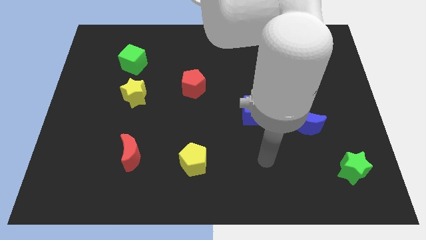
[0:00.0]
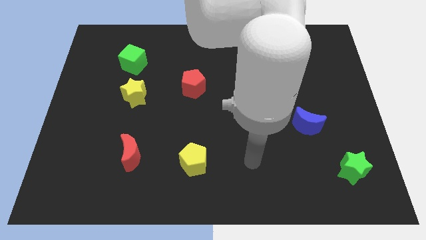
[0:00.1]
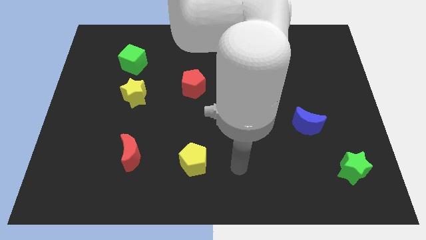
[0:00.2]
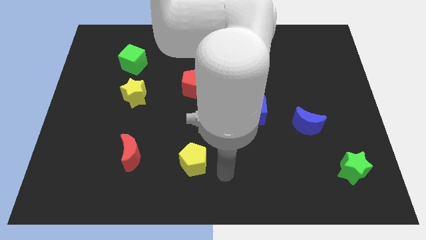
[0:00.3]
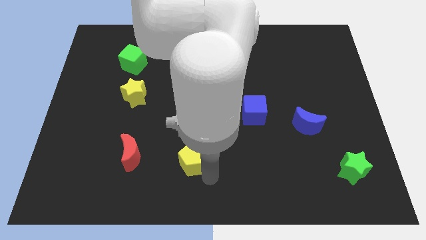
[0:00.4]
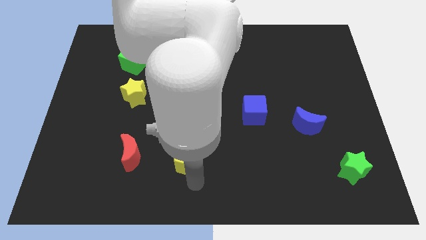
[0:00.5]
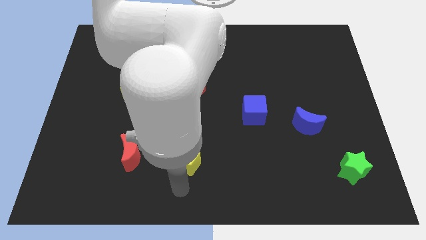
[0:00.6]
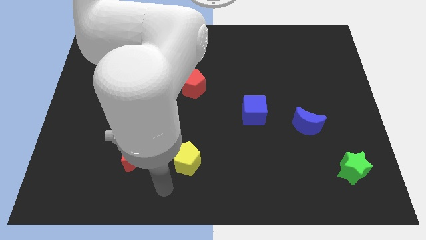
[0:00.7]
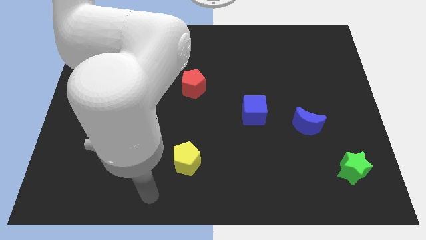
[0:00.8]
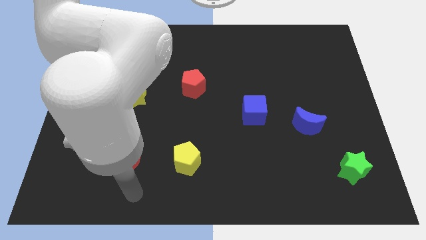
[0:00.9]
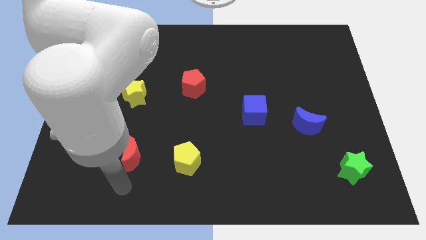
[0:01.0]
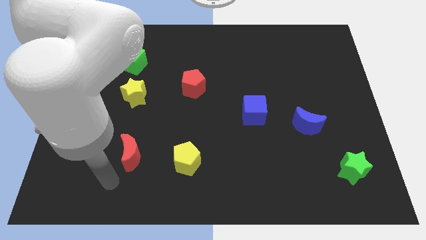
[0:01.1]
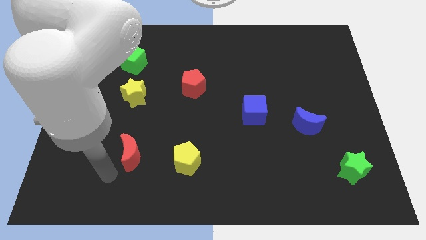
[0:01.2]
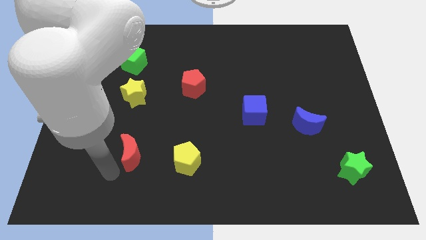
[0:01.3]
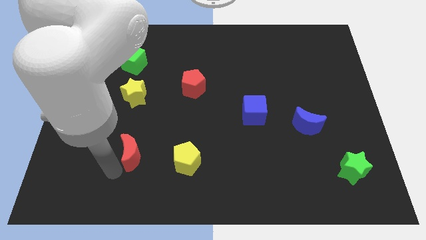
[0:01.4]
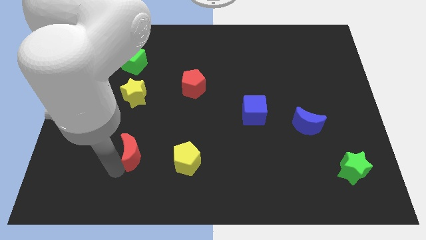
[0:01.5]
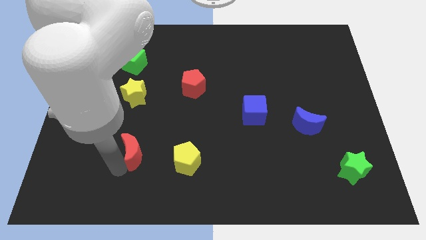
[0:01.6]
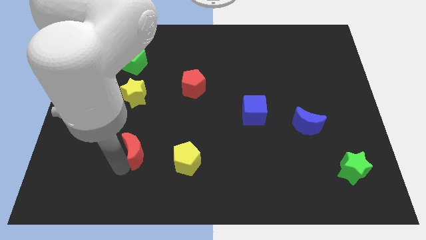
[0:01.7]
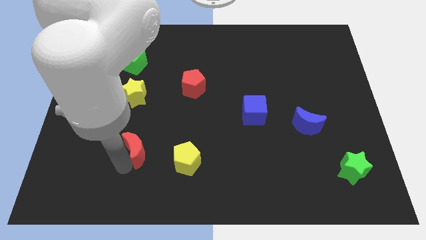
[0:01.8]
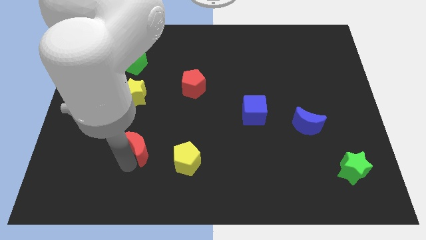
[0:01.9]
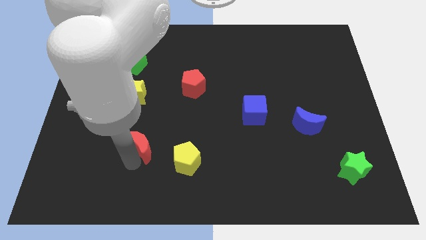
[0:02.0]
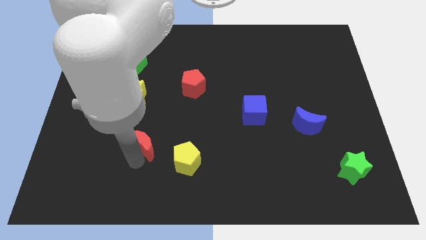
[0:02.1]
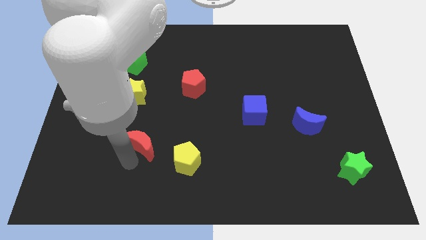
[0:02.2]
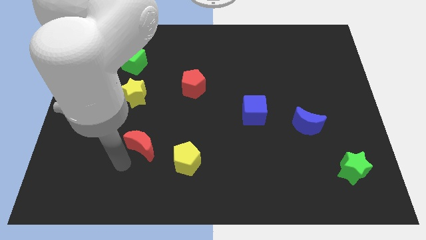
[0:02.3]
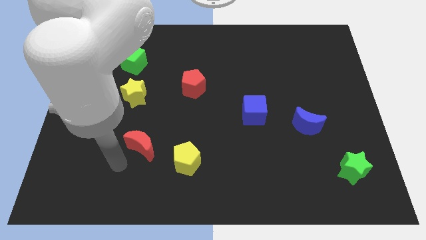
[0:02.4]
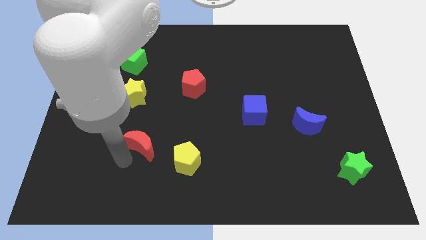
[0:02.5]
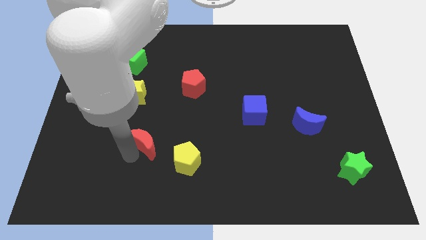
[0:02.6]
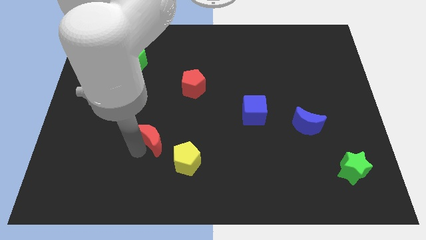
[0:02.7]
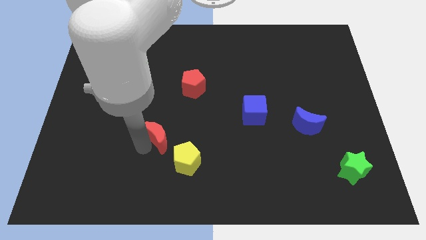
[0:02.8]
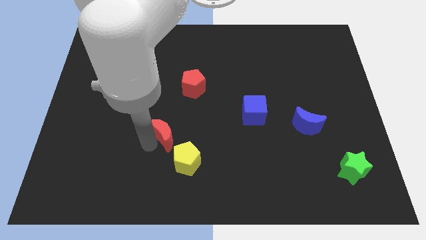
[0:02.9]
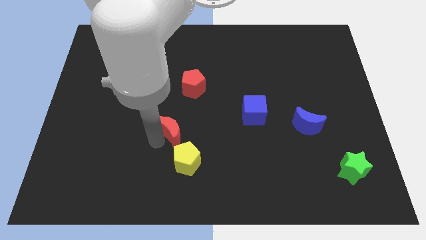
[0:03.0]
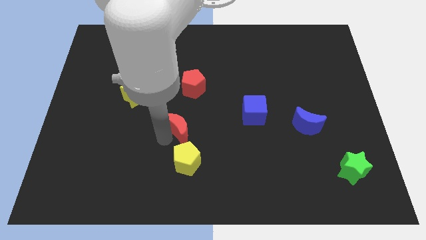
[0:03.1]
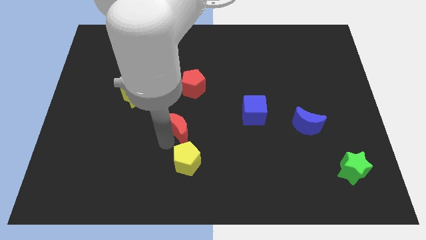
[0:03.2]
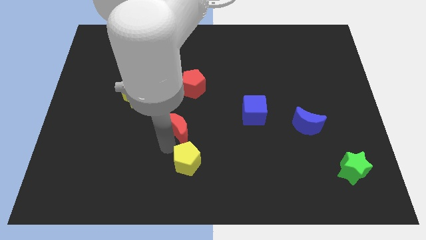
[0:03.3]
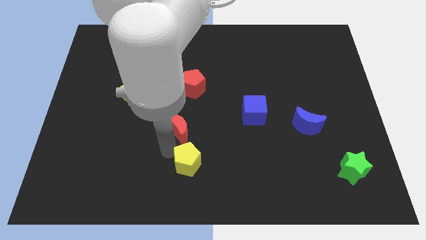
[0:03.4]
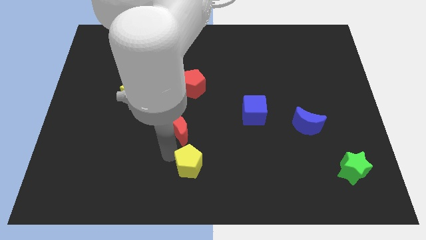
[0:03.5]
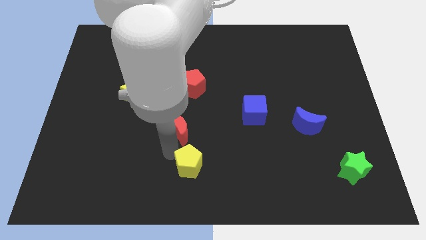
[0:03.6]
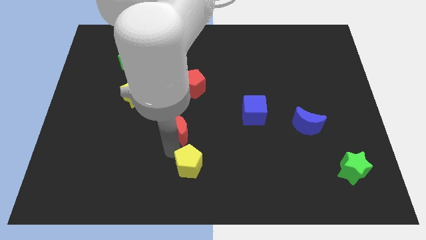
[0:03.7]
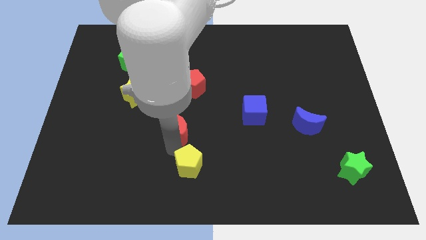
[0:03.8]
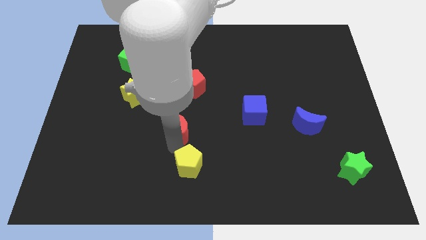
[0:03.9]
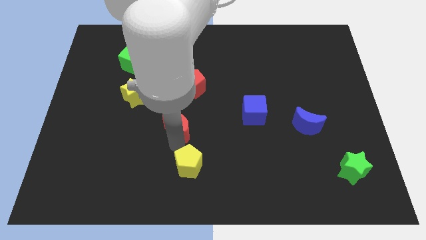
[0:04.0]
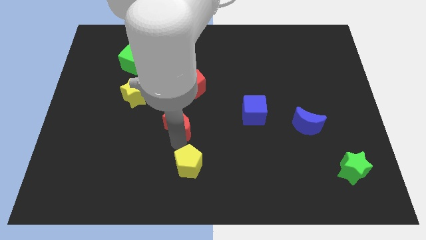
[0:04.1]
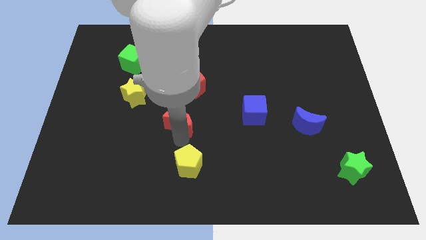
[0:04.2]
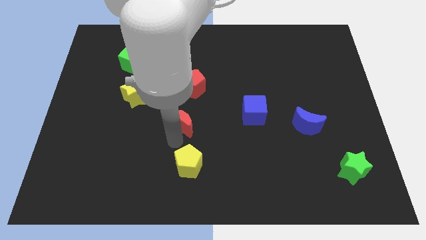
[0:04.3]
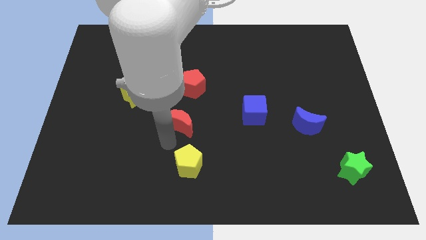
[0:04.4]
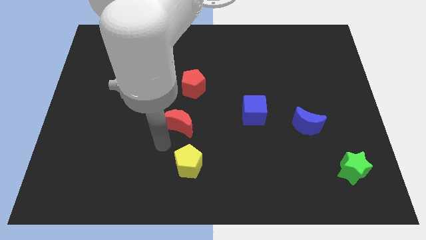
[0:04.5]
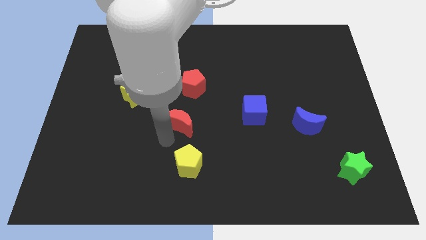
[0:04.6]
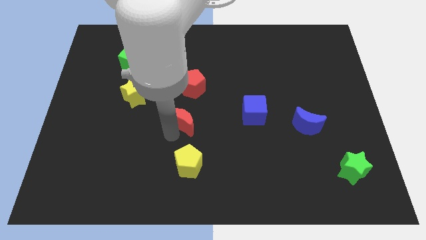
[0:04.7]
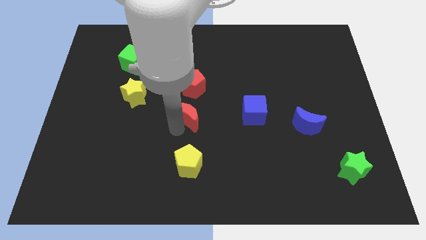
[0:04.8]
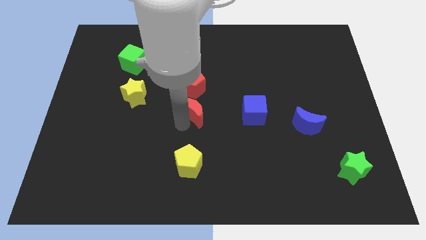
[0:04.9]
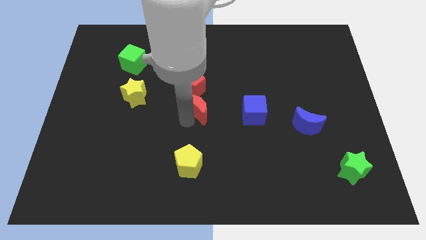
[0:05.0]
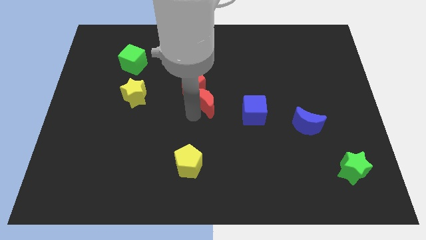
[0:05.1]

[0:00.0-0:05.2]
slide the red moon upwards and then to the right

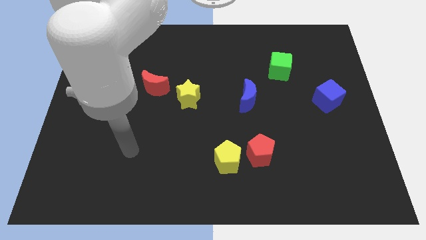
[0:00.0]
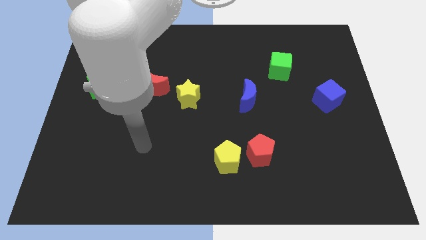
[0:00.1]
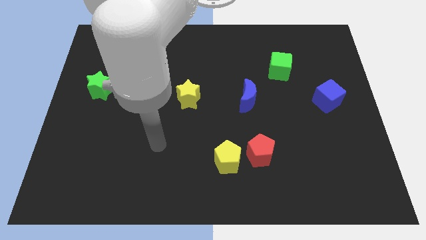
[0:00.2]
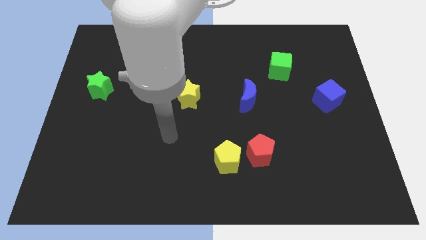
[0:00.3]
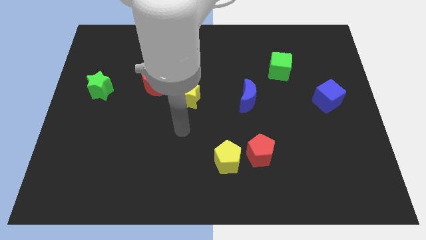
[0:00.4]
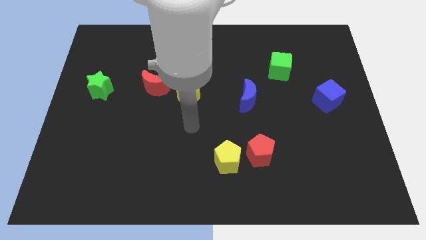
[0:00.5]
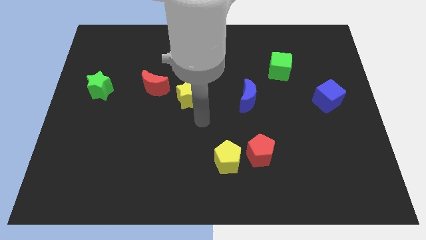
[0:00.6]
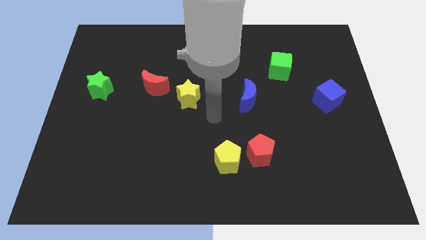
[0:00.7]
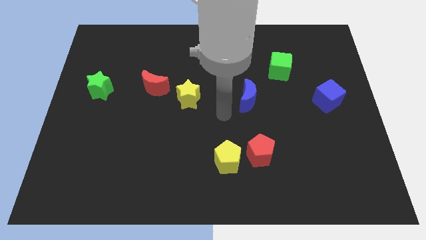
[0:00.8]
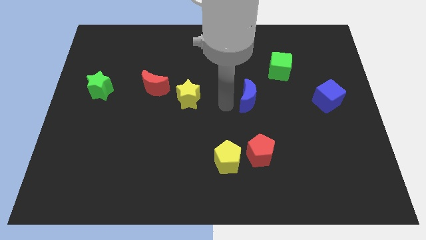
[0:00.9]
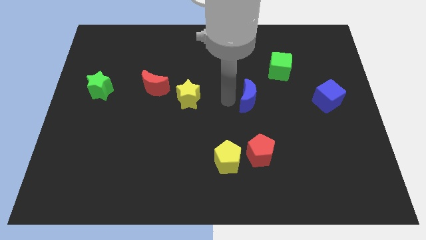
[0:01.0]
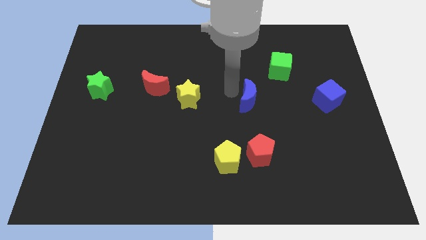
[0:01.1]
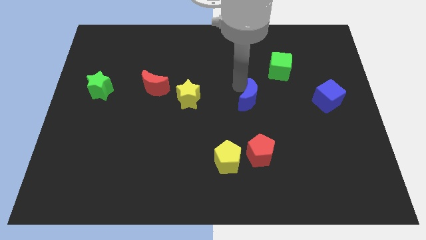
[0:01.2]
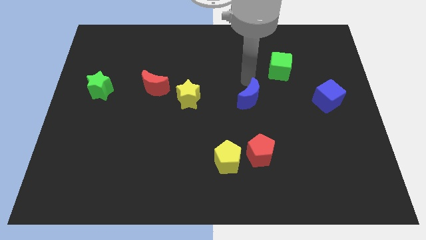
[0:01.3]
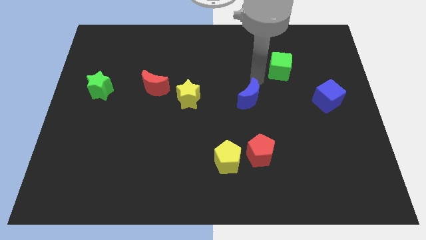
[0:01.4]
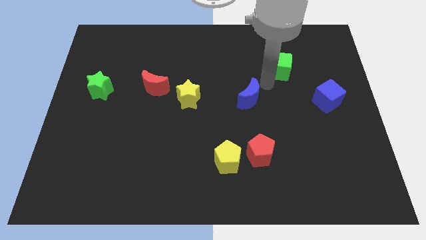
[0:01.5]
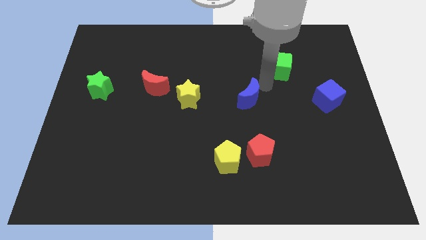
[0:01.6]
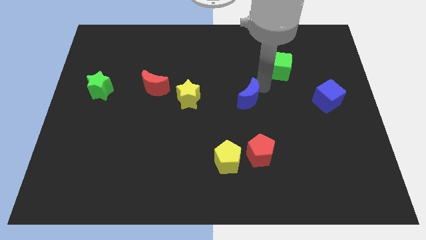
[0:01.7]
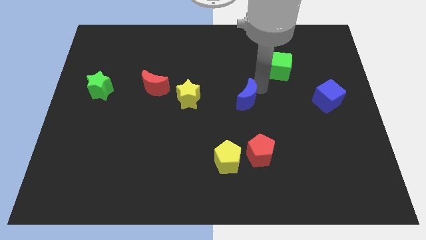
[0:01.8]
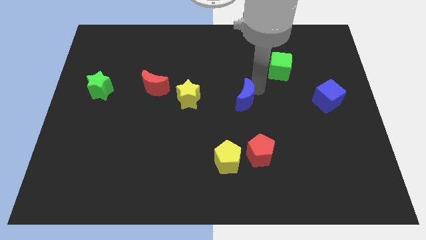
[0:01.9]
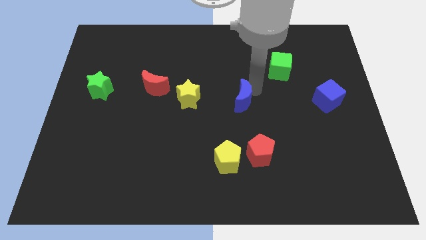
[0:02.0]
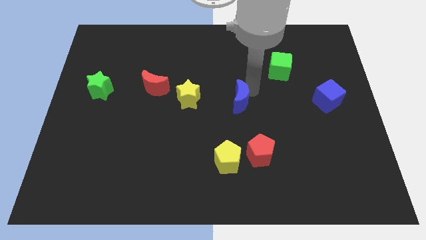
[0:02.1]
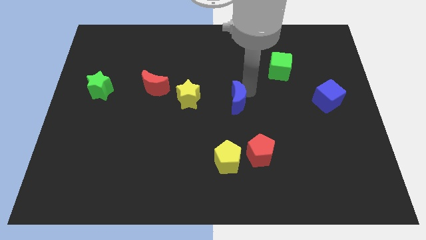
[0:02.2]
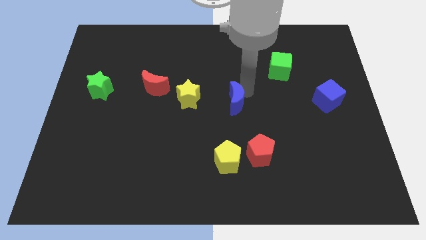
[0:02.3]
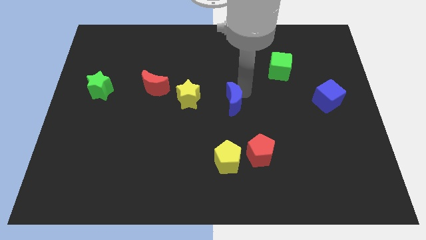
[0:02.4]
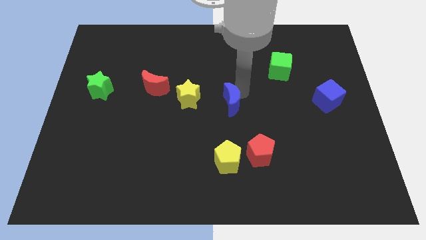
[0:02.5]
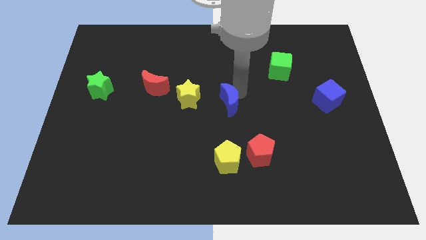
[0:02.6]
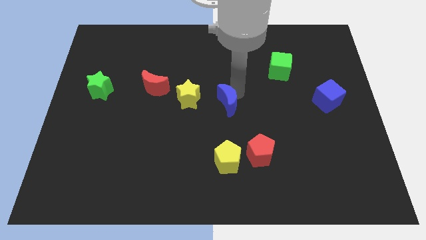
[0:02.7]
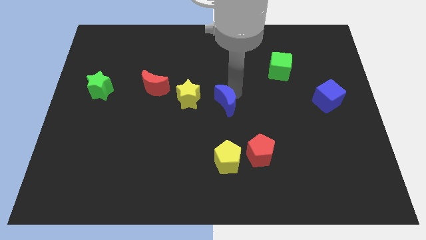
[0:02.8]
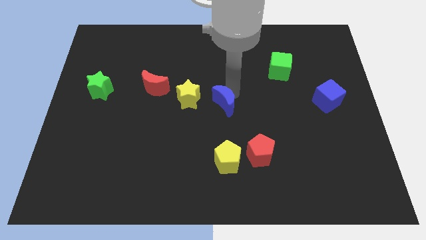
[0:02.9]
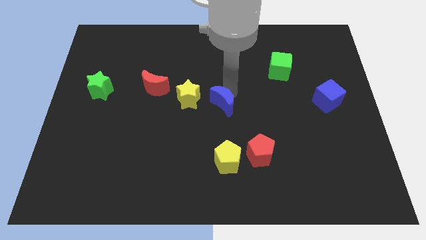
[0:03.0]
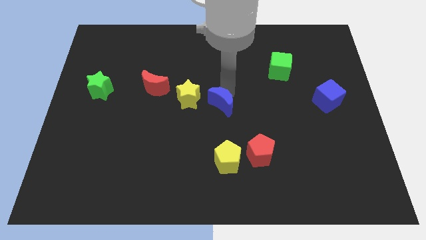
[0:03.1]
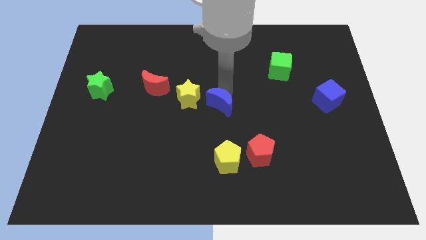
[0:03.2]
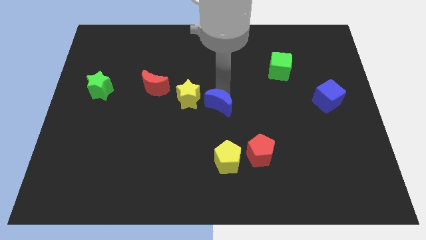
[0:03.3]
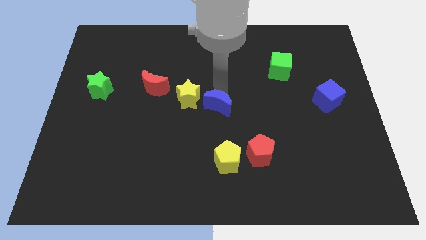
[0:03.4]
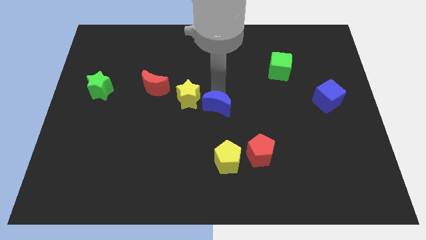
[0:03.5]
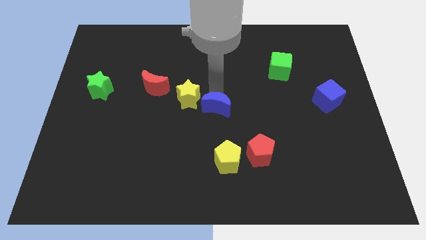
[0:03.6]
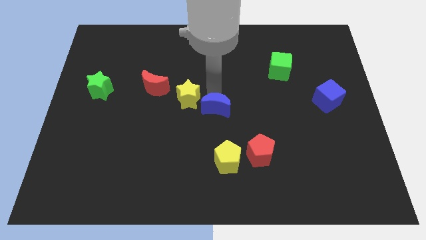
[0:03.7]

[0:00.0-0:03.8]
slide the blue moon downwards and then to the left a little bit
